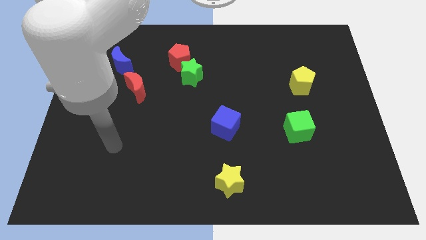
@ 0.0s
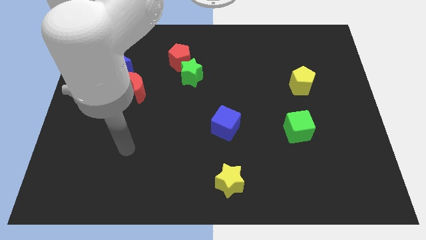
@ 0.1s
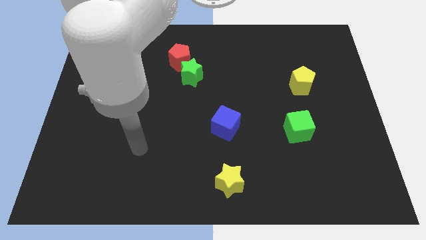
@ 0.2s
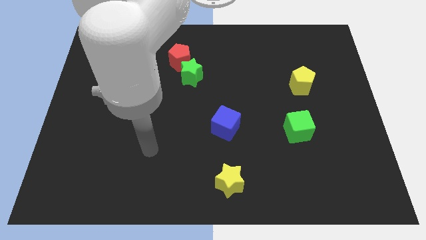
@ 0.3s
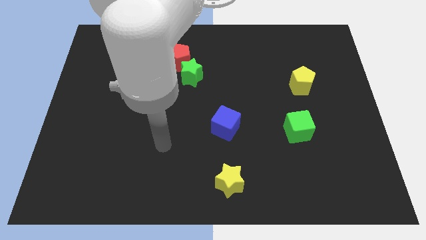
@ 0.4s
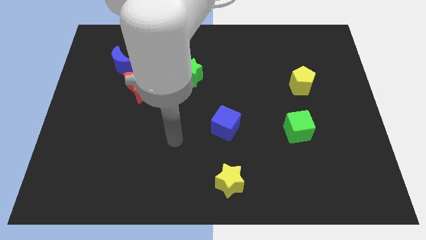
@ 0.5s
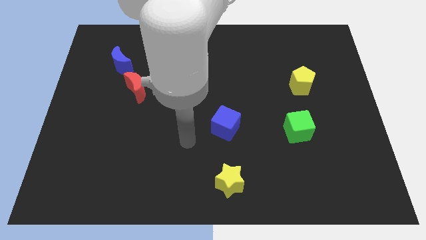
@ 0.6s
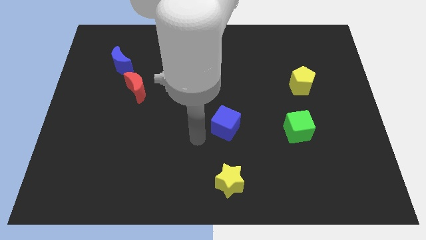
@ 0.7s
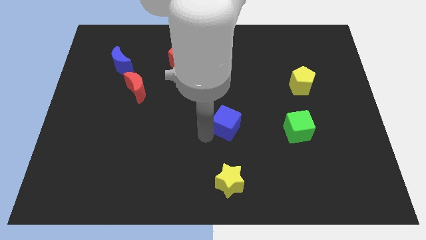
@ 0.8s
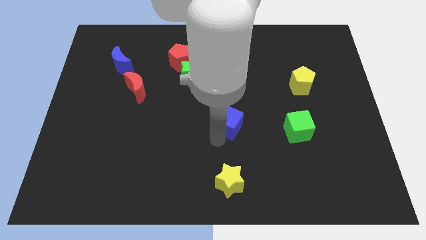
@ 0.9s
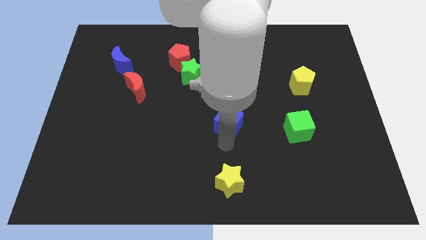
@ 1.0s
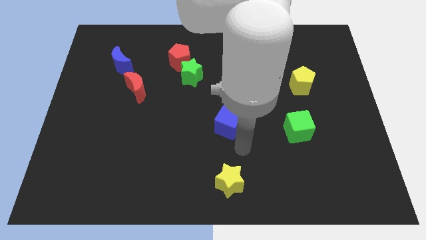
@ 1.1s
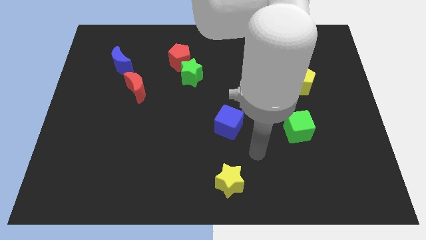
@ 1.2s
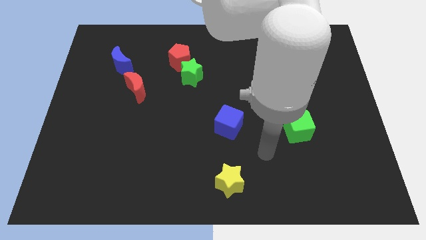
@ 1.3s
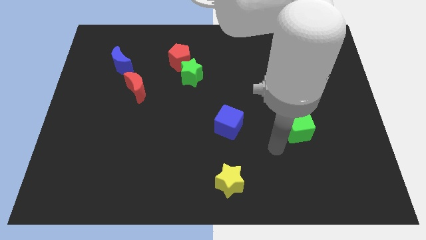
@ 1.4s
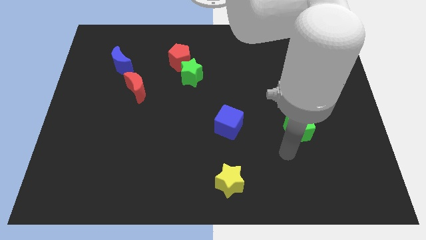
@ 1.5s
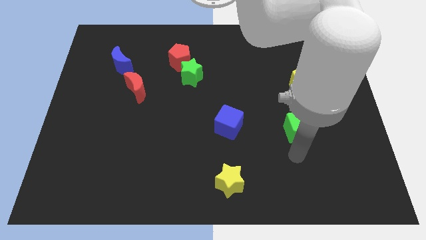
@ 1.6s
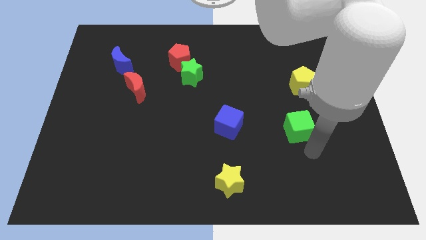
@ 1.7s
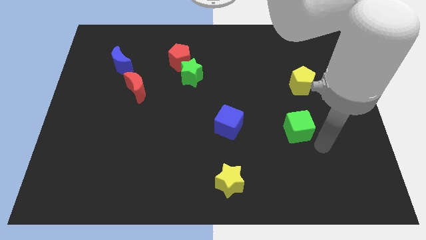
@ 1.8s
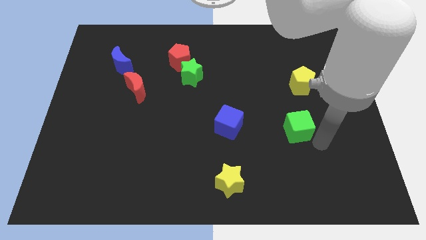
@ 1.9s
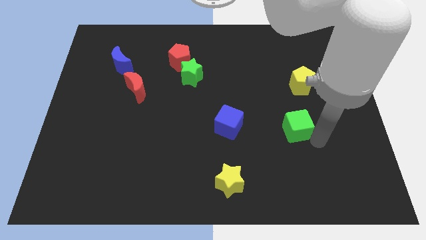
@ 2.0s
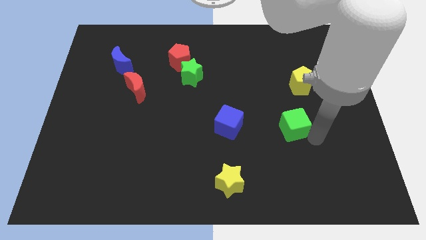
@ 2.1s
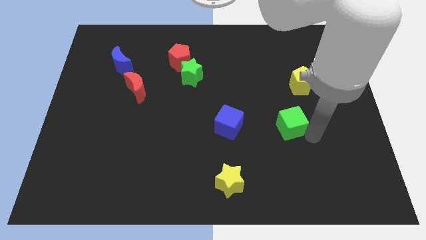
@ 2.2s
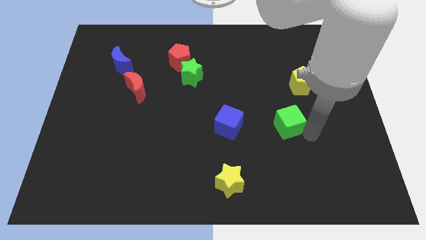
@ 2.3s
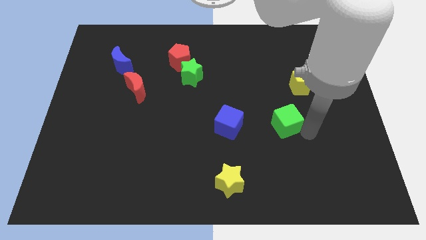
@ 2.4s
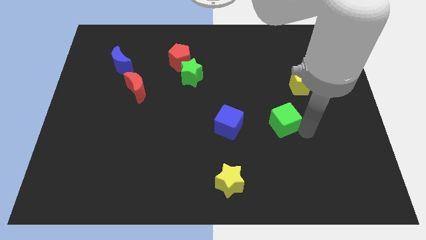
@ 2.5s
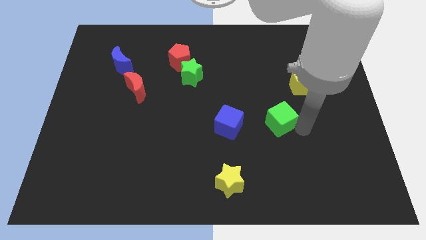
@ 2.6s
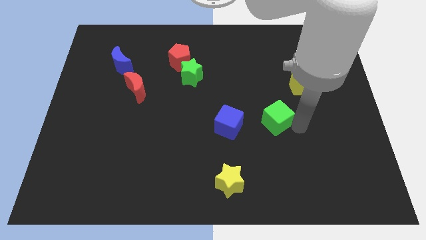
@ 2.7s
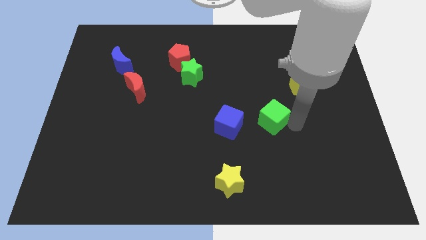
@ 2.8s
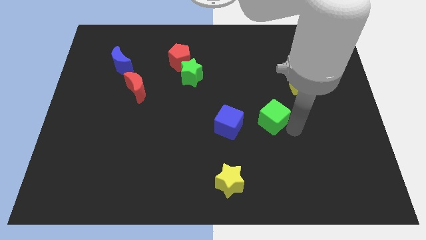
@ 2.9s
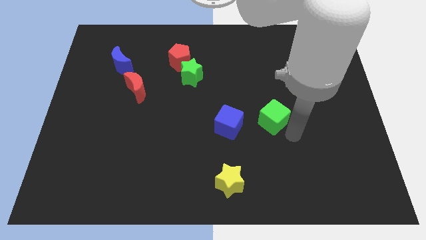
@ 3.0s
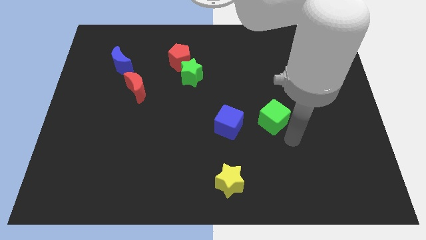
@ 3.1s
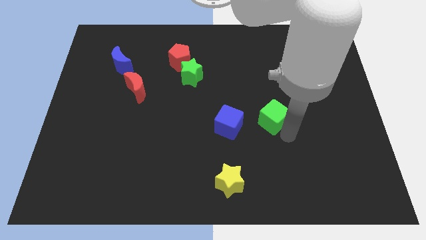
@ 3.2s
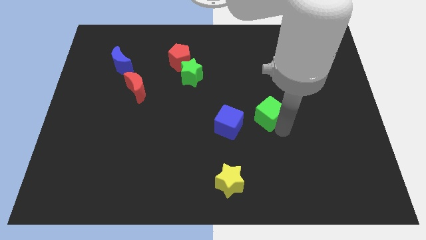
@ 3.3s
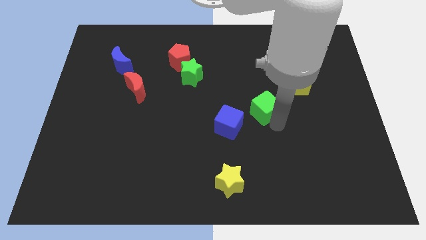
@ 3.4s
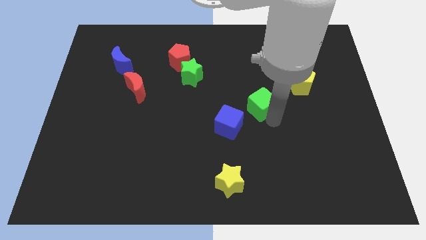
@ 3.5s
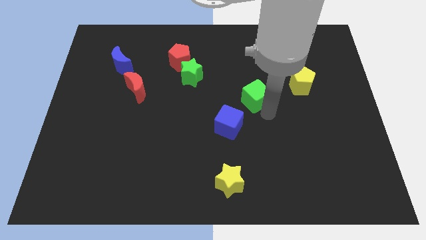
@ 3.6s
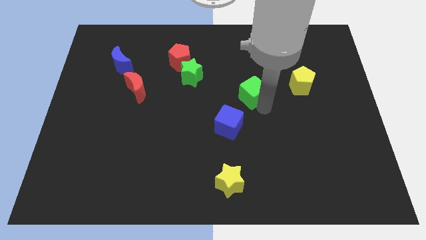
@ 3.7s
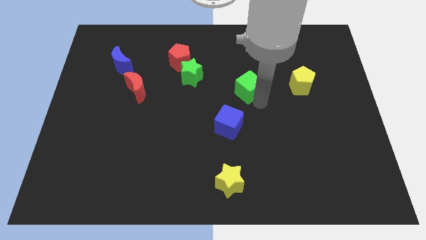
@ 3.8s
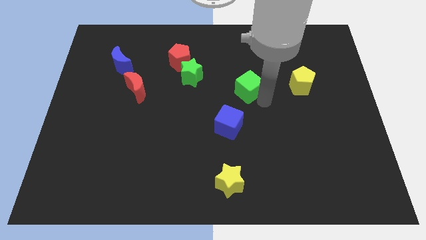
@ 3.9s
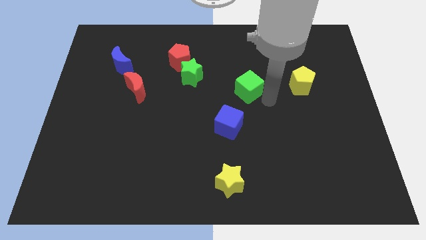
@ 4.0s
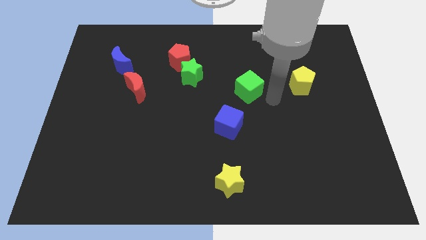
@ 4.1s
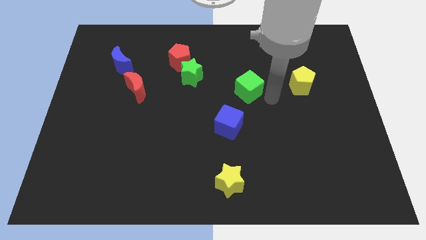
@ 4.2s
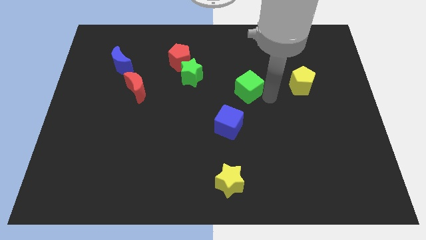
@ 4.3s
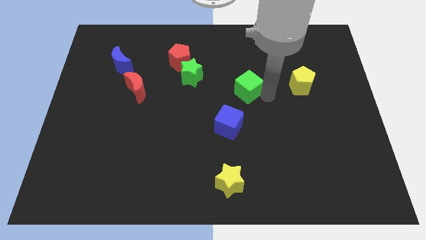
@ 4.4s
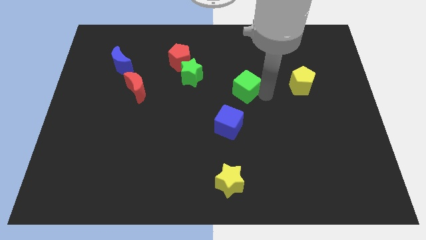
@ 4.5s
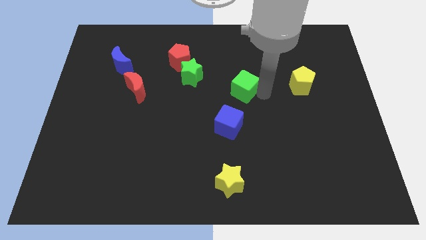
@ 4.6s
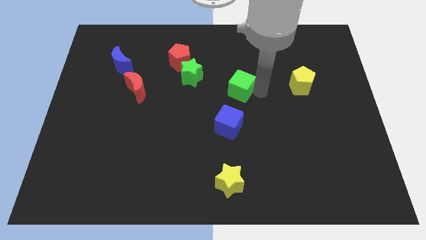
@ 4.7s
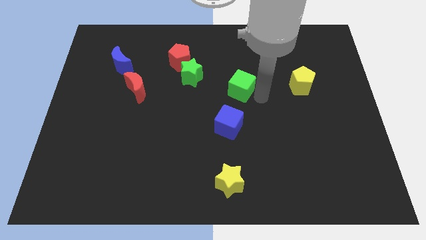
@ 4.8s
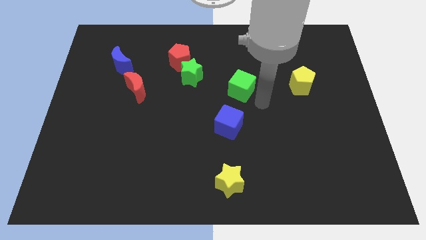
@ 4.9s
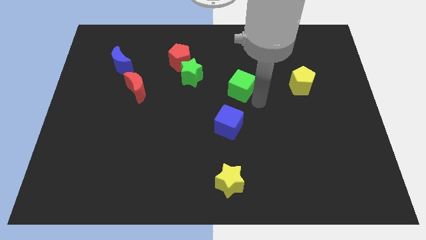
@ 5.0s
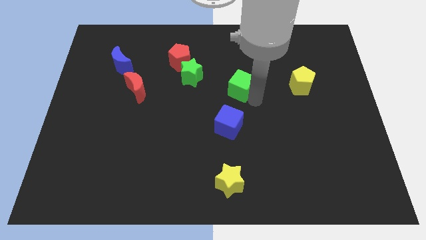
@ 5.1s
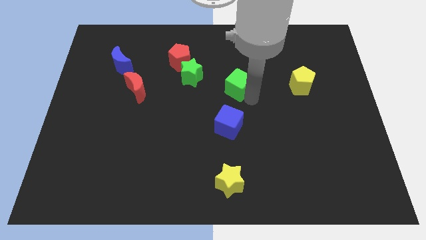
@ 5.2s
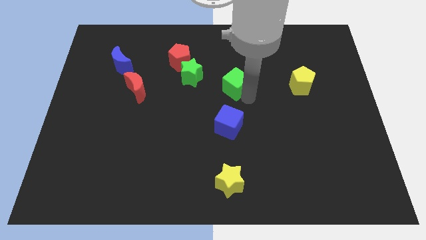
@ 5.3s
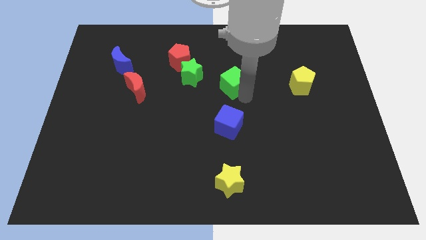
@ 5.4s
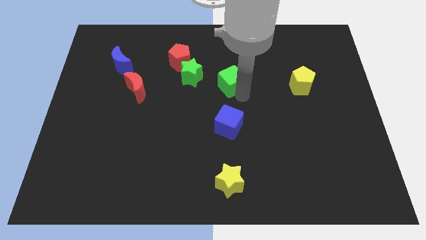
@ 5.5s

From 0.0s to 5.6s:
move the green cube upwards and to the left diagonally

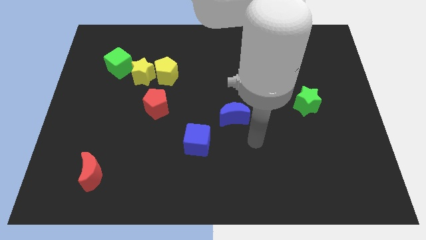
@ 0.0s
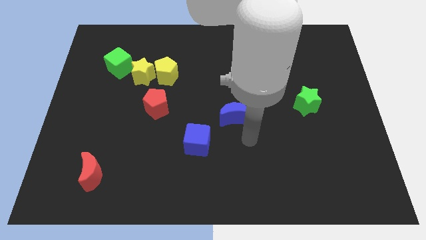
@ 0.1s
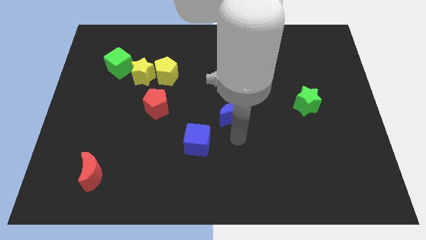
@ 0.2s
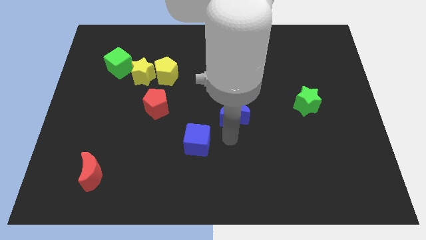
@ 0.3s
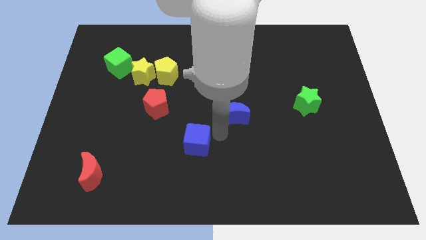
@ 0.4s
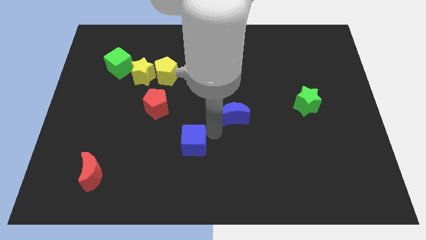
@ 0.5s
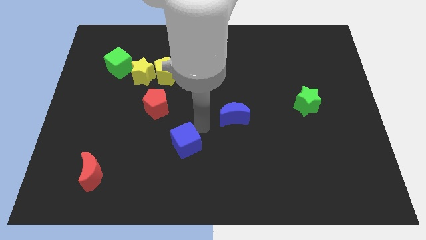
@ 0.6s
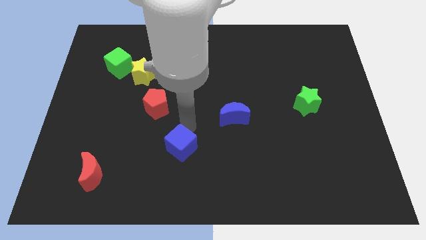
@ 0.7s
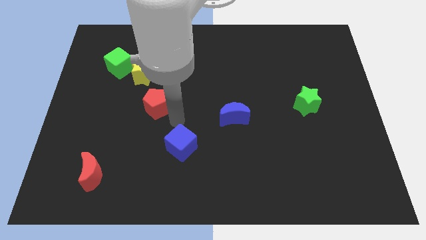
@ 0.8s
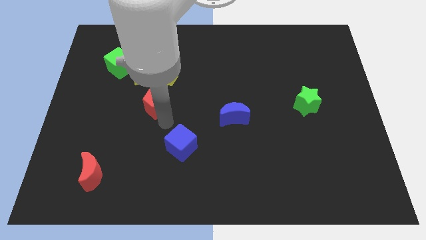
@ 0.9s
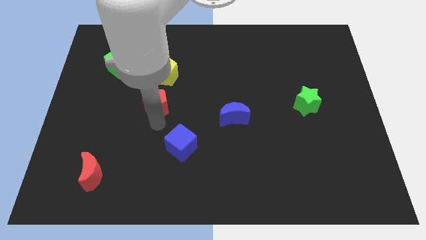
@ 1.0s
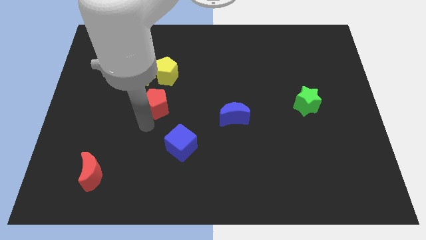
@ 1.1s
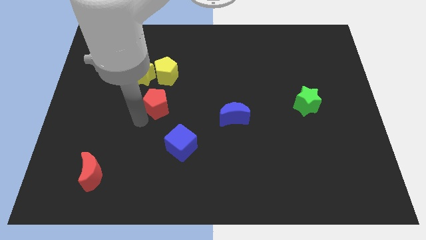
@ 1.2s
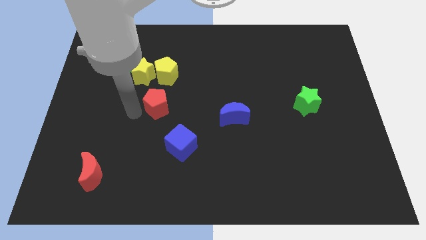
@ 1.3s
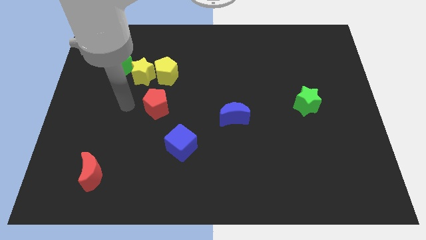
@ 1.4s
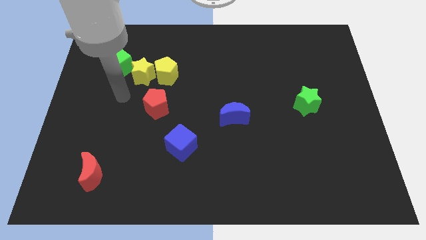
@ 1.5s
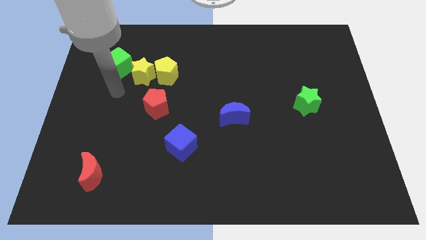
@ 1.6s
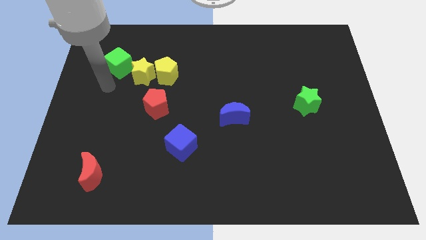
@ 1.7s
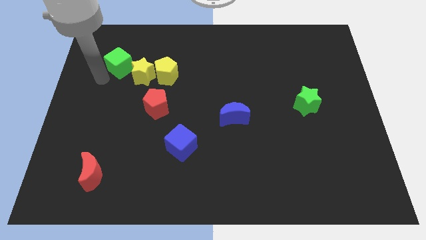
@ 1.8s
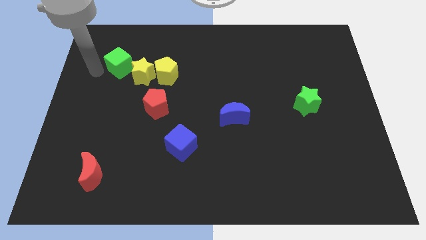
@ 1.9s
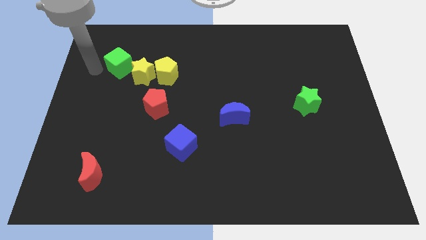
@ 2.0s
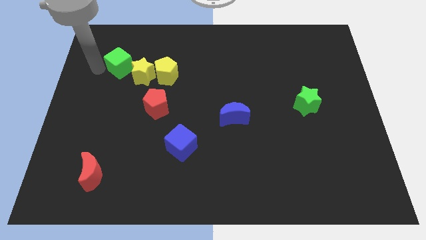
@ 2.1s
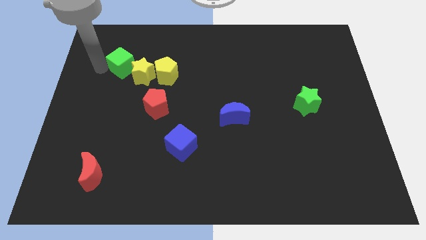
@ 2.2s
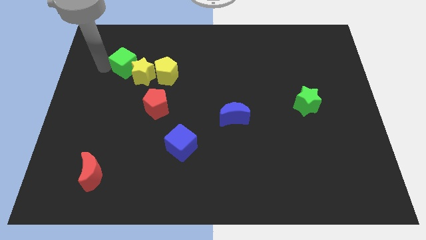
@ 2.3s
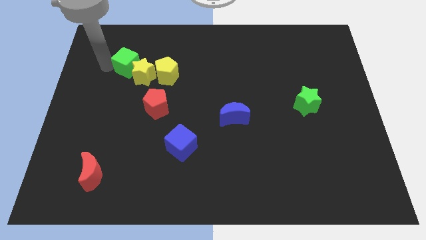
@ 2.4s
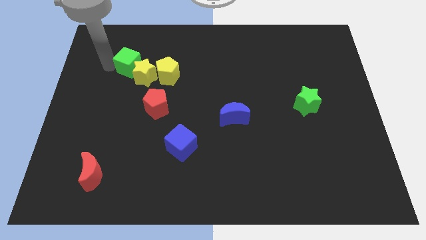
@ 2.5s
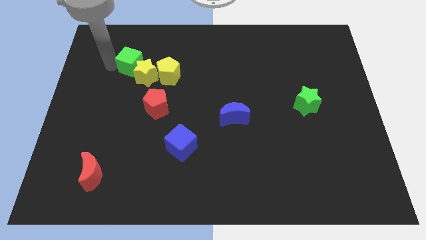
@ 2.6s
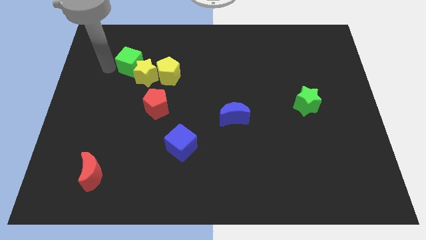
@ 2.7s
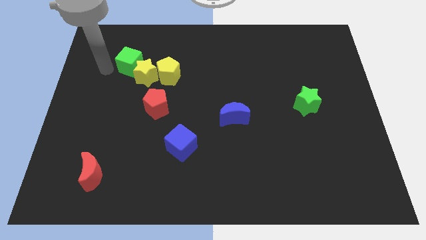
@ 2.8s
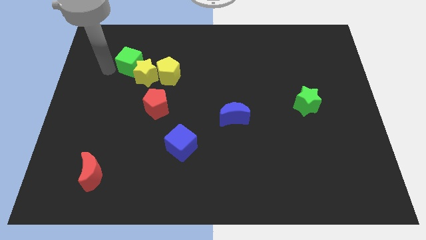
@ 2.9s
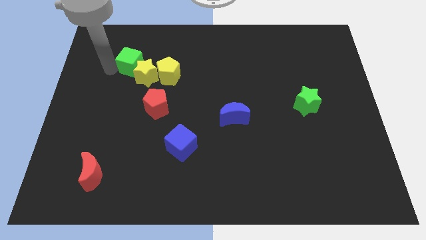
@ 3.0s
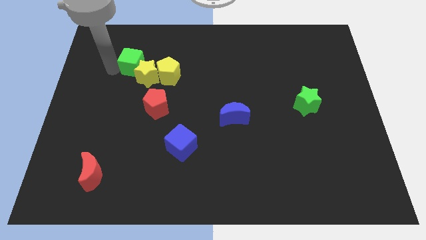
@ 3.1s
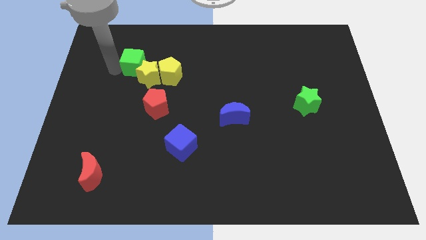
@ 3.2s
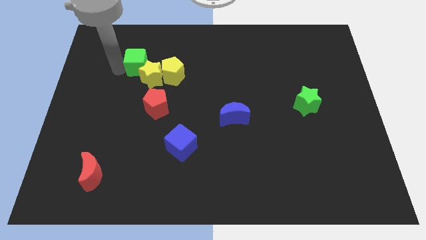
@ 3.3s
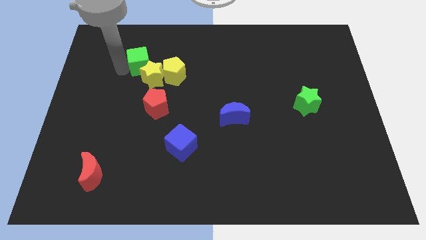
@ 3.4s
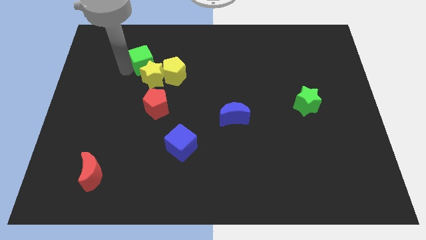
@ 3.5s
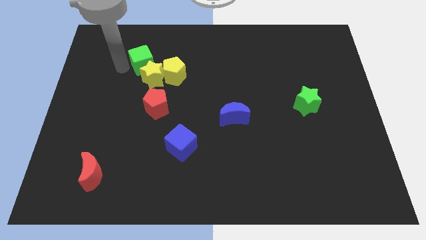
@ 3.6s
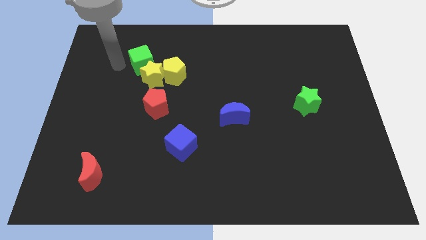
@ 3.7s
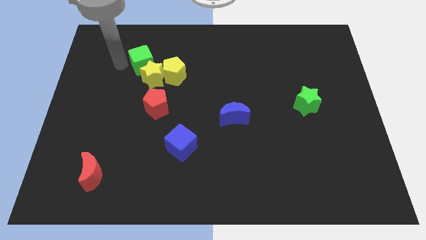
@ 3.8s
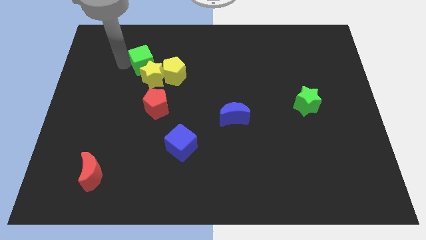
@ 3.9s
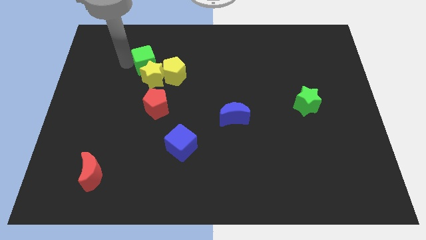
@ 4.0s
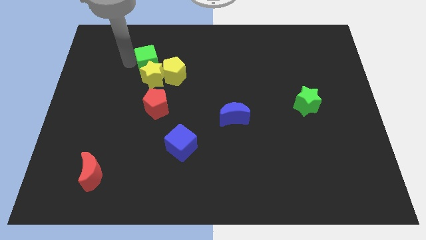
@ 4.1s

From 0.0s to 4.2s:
slightly push the green cube right
